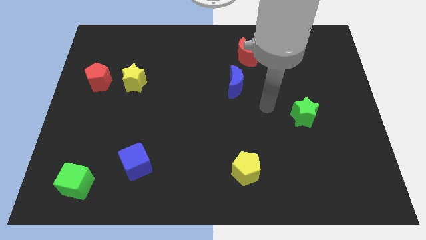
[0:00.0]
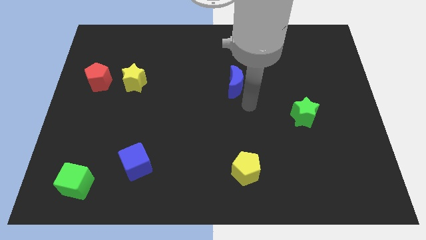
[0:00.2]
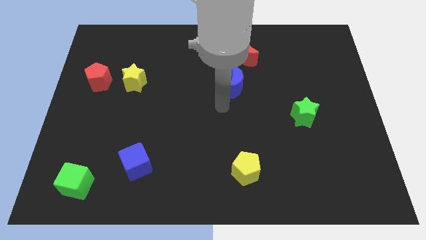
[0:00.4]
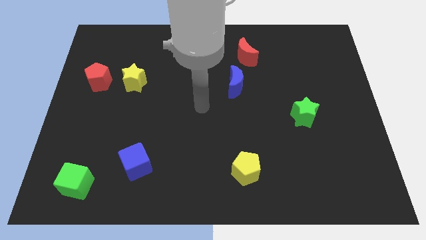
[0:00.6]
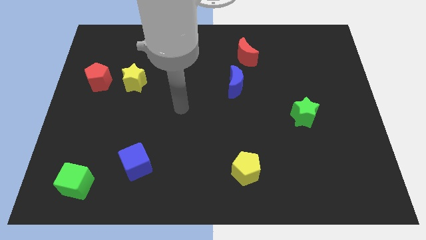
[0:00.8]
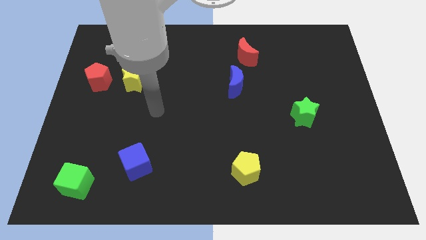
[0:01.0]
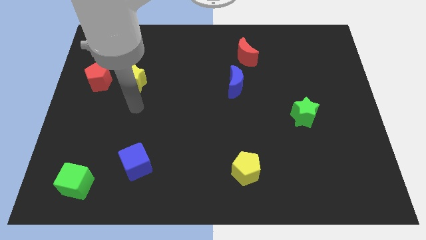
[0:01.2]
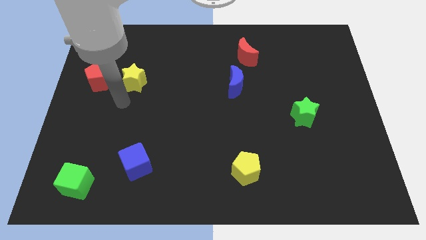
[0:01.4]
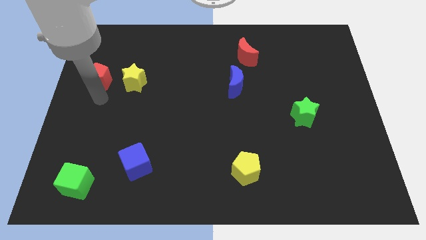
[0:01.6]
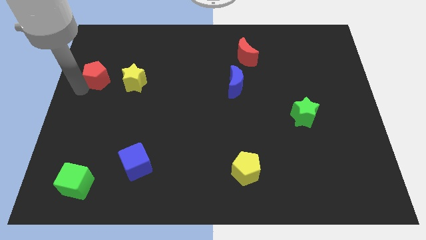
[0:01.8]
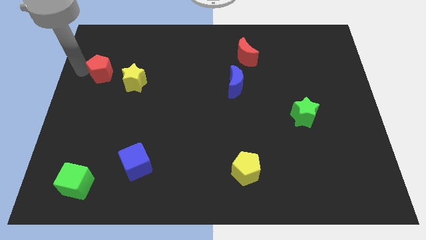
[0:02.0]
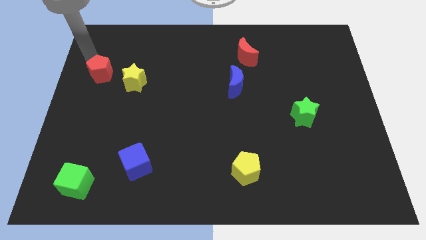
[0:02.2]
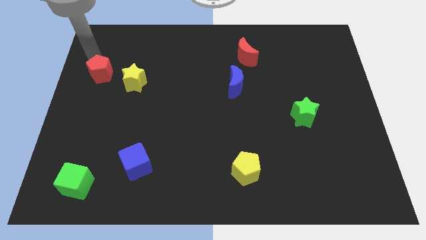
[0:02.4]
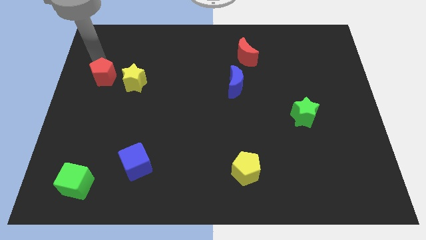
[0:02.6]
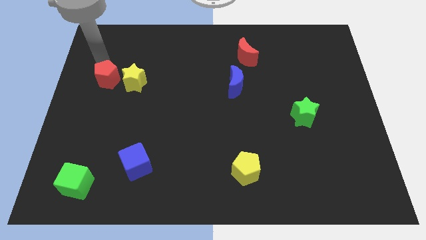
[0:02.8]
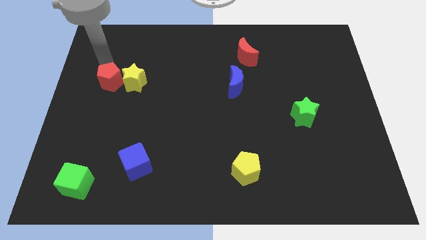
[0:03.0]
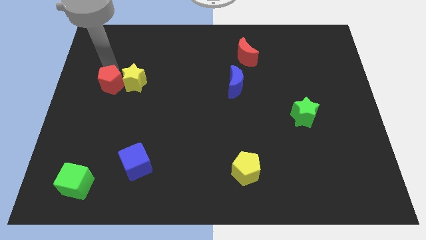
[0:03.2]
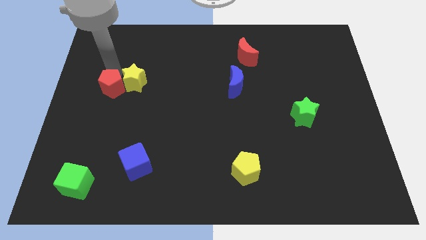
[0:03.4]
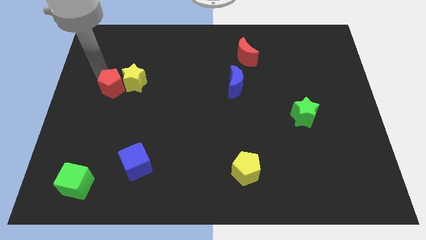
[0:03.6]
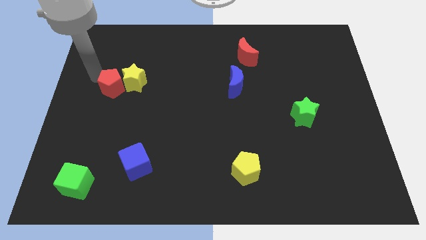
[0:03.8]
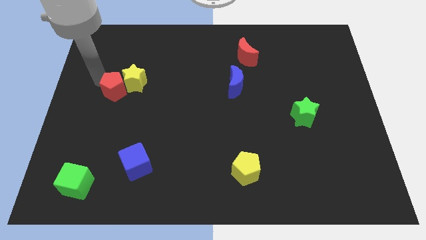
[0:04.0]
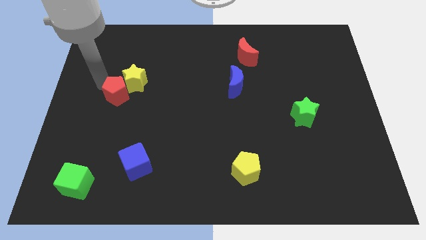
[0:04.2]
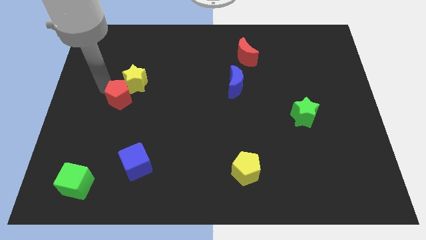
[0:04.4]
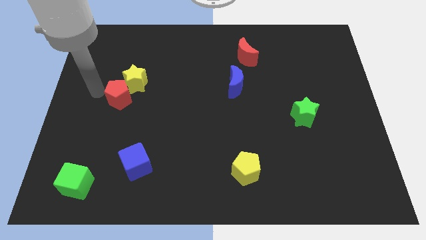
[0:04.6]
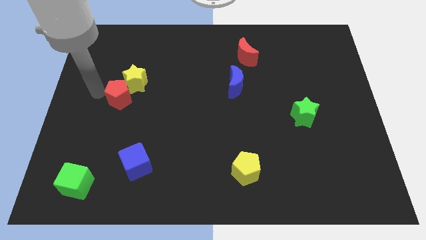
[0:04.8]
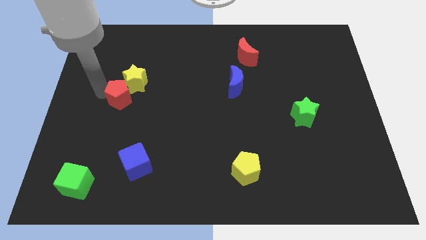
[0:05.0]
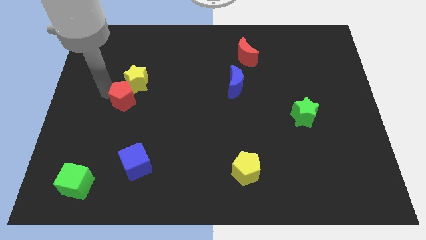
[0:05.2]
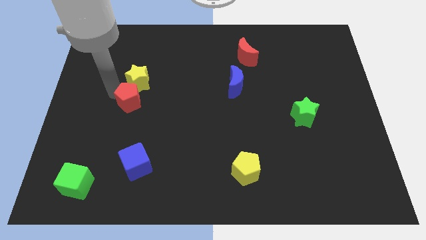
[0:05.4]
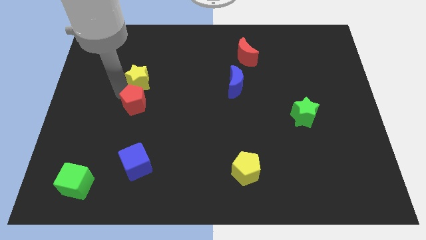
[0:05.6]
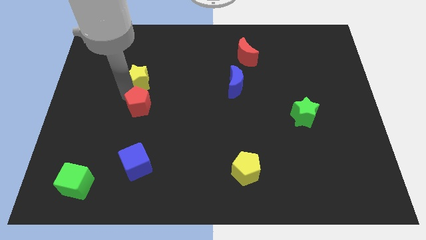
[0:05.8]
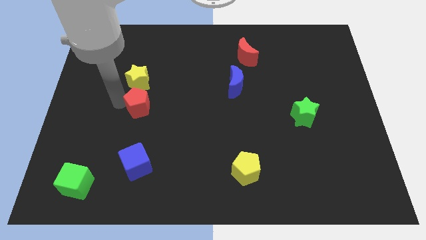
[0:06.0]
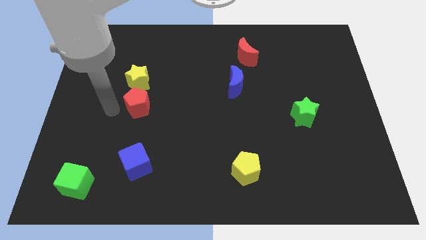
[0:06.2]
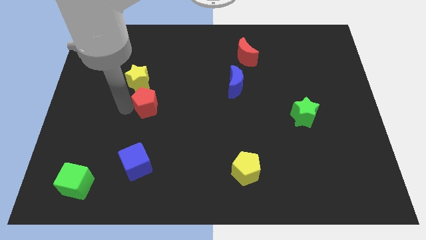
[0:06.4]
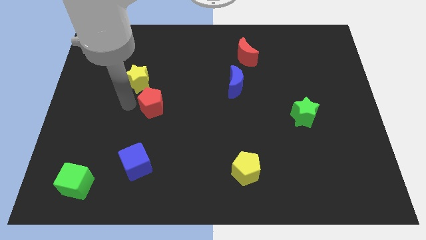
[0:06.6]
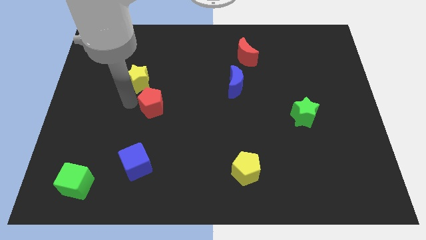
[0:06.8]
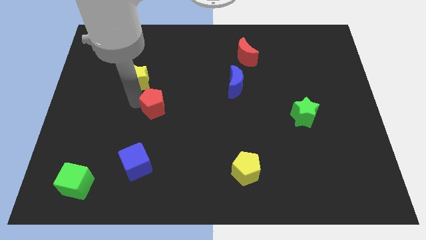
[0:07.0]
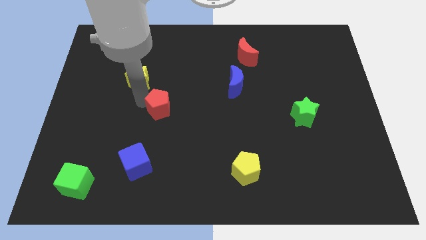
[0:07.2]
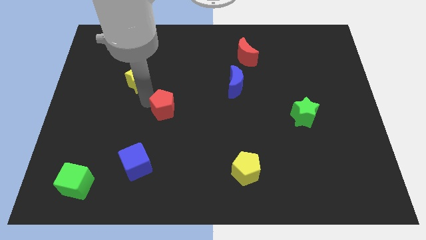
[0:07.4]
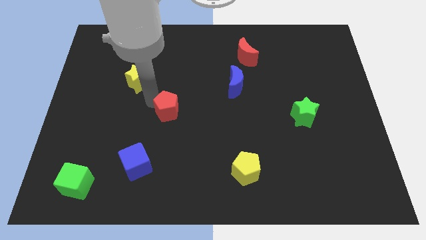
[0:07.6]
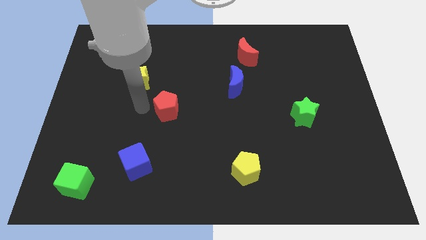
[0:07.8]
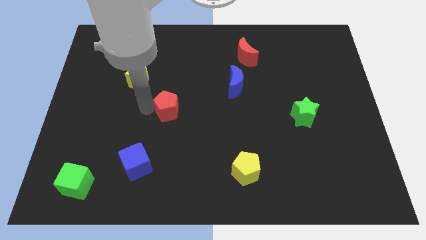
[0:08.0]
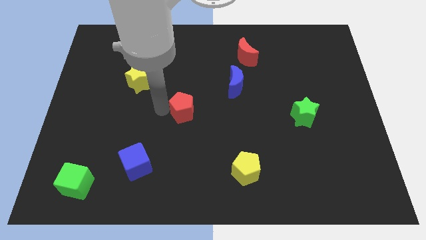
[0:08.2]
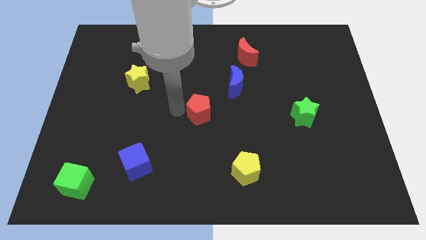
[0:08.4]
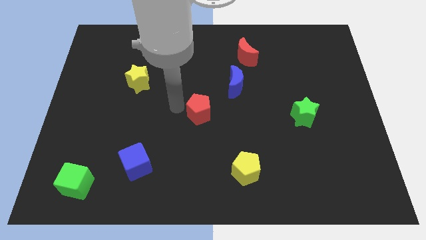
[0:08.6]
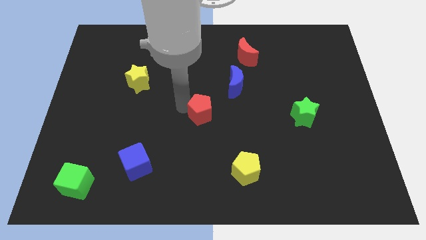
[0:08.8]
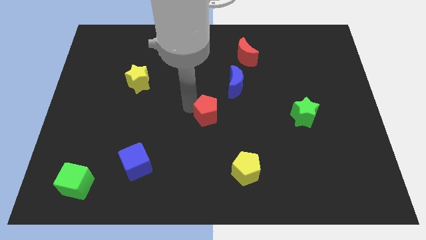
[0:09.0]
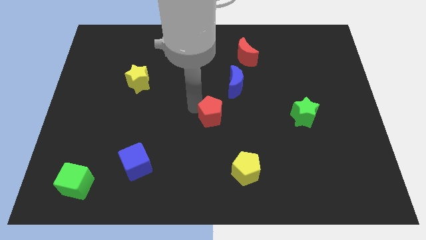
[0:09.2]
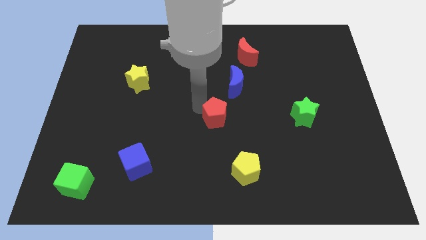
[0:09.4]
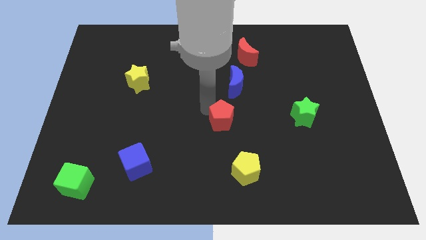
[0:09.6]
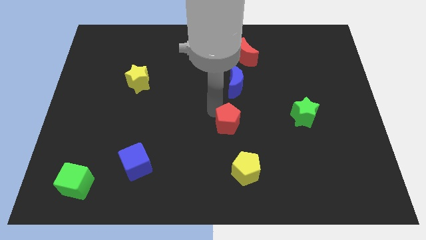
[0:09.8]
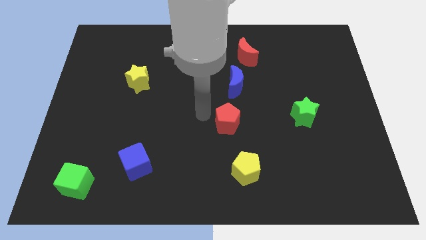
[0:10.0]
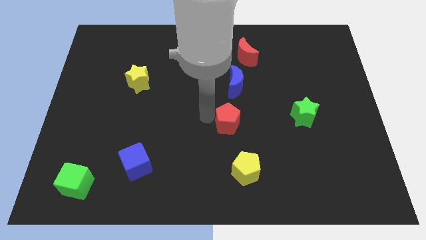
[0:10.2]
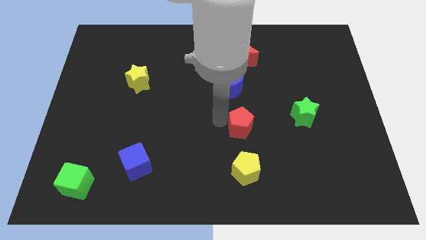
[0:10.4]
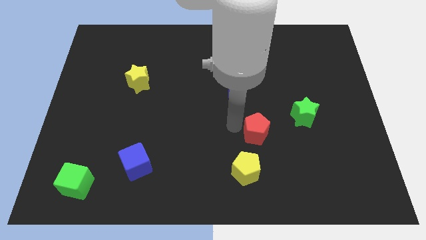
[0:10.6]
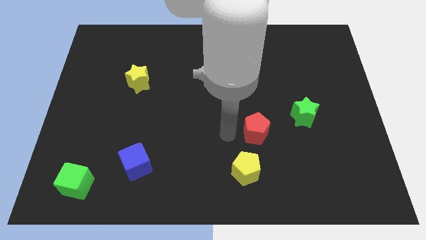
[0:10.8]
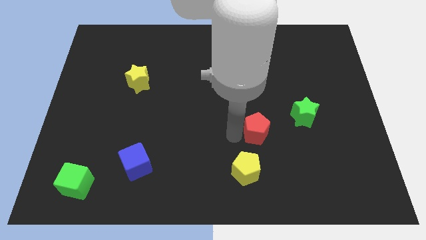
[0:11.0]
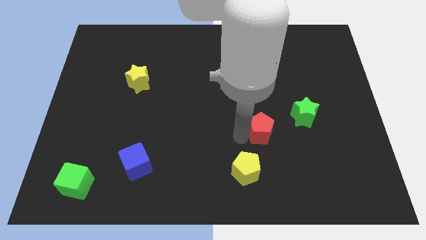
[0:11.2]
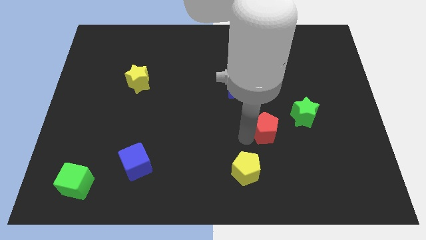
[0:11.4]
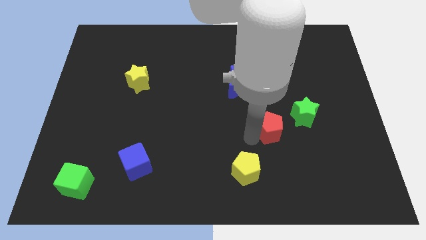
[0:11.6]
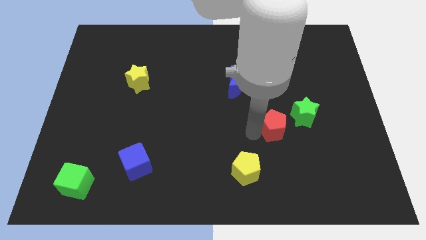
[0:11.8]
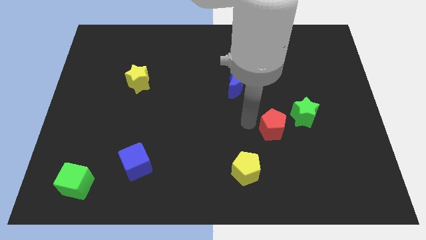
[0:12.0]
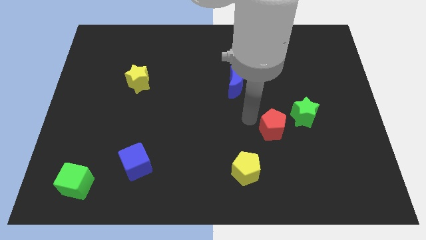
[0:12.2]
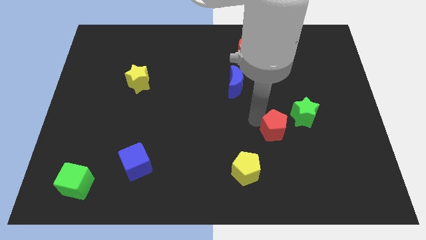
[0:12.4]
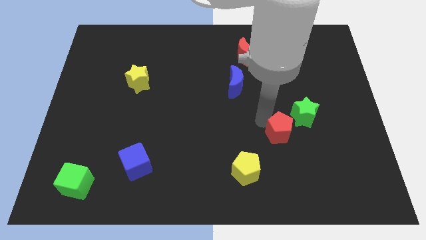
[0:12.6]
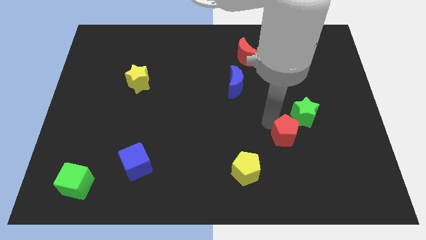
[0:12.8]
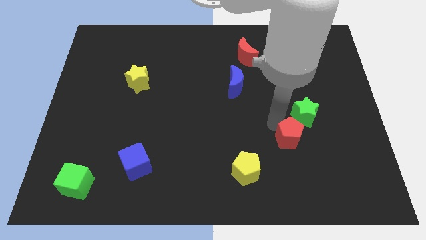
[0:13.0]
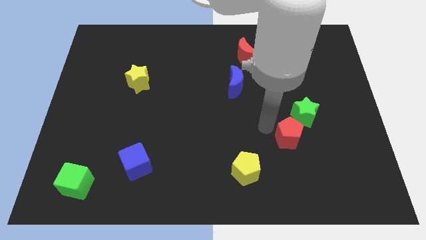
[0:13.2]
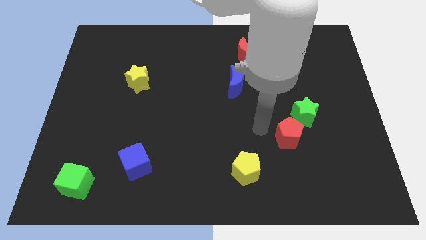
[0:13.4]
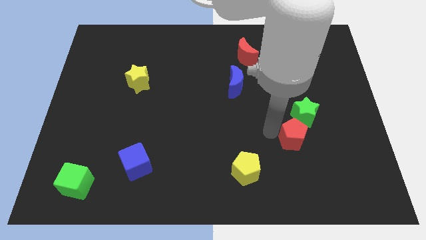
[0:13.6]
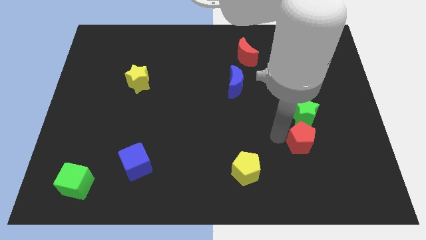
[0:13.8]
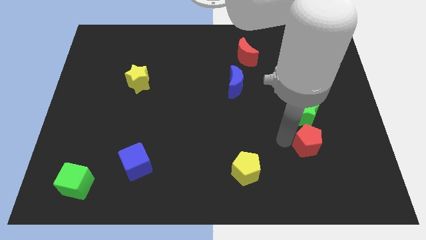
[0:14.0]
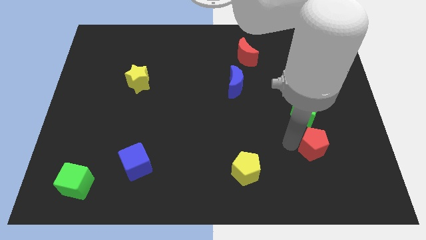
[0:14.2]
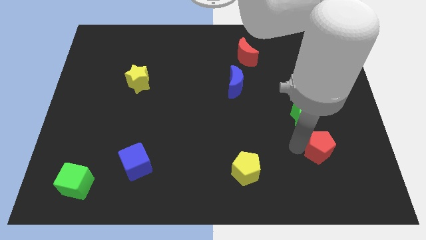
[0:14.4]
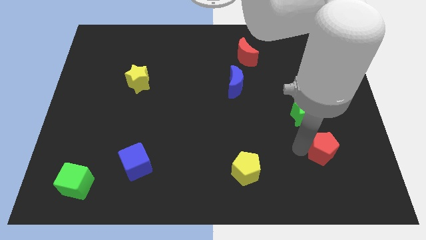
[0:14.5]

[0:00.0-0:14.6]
put the red pentagon to the bottom right of the green star

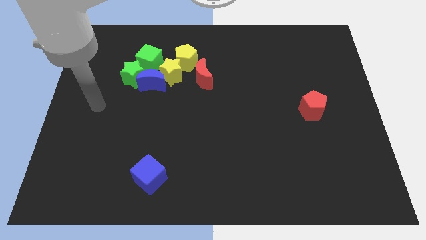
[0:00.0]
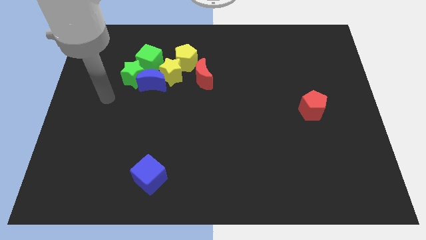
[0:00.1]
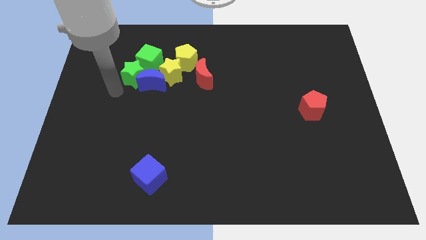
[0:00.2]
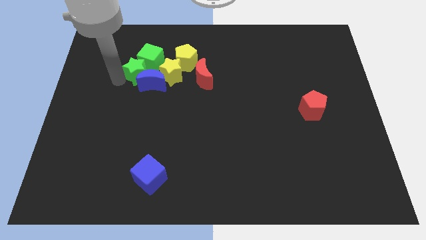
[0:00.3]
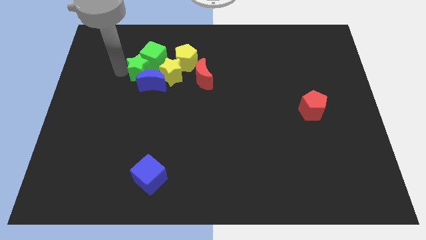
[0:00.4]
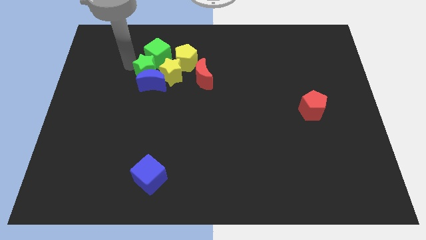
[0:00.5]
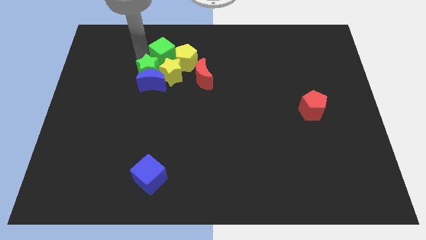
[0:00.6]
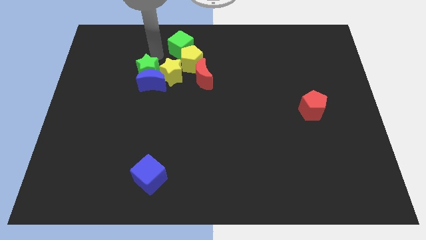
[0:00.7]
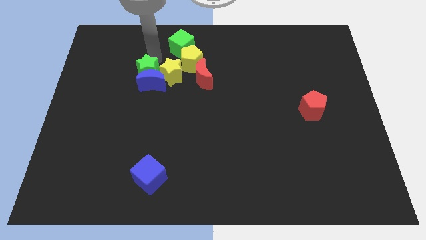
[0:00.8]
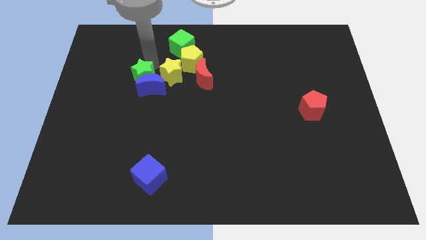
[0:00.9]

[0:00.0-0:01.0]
put the green star to the bottom left of the yellow star
